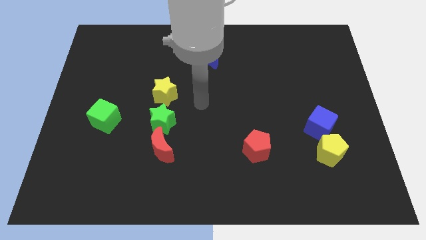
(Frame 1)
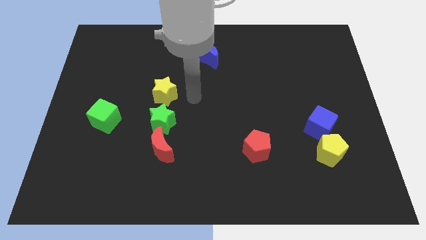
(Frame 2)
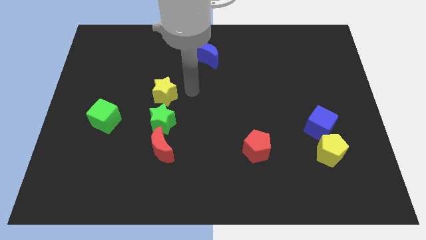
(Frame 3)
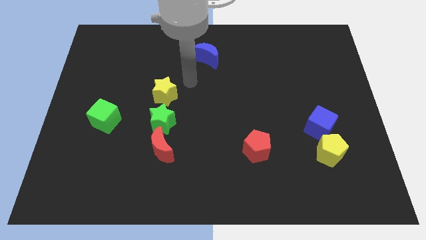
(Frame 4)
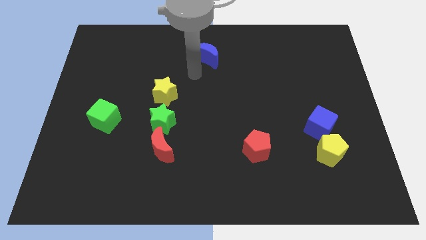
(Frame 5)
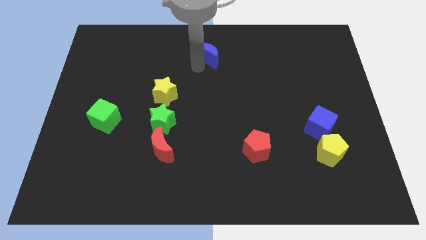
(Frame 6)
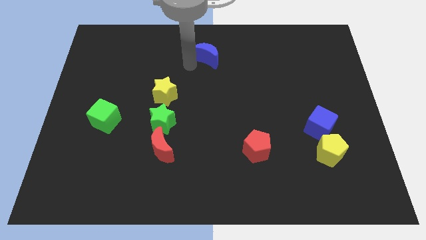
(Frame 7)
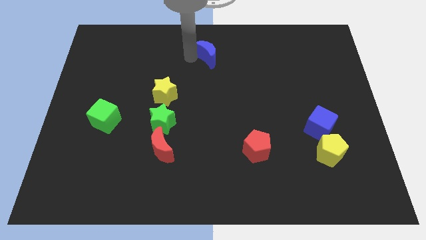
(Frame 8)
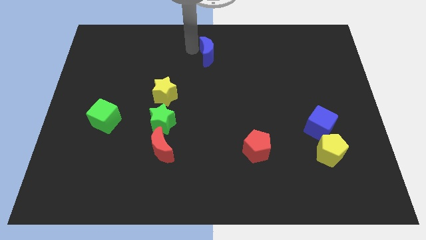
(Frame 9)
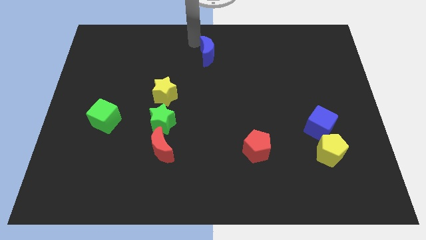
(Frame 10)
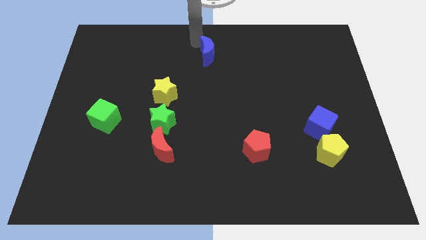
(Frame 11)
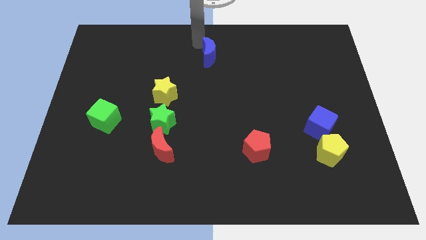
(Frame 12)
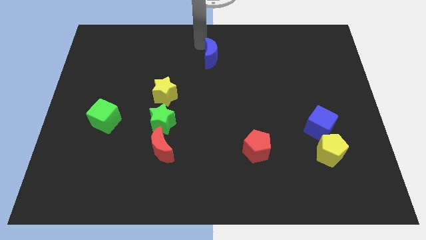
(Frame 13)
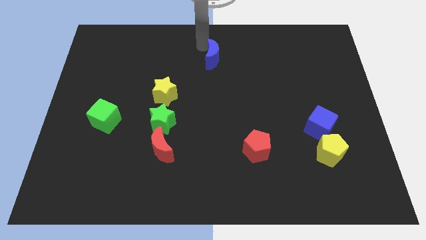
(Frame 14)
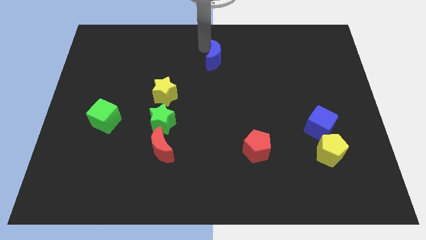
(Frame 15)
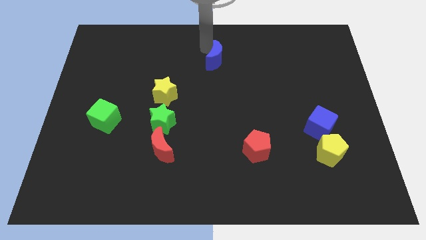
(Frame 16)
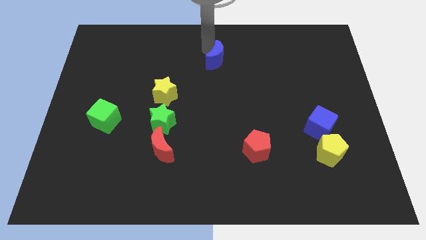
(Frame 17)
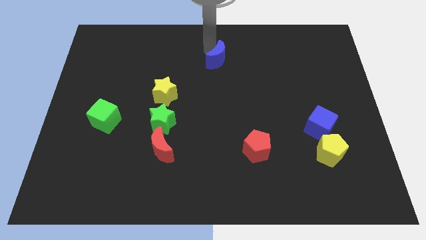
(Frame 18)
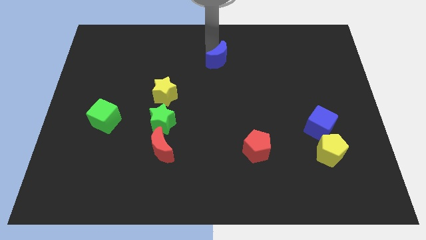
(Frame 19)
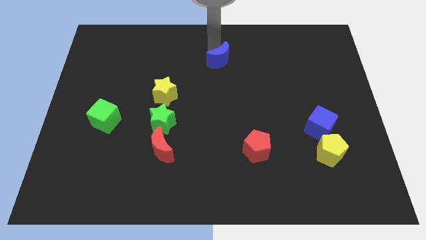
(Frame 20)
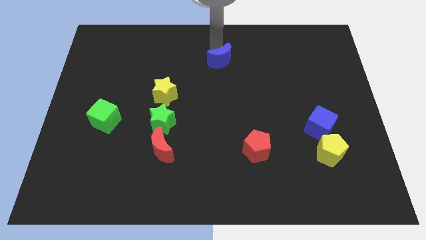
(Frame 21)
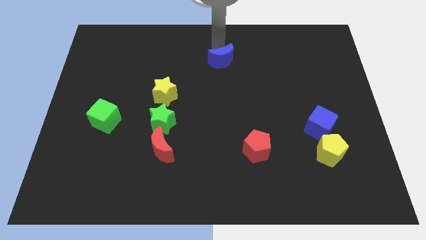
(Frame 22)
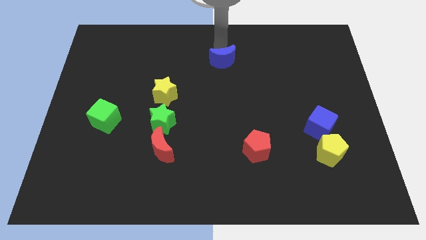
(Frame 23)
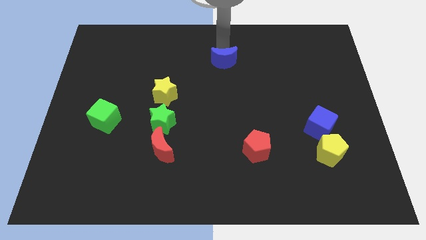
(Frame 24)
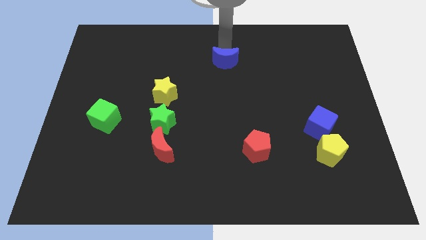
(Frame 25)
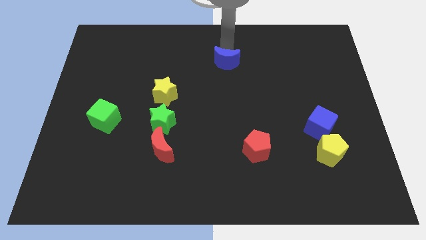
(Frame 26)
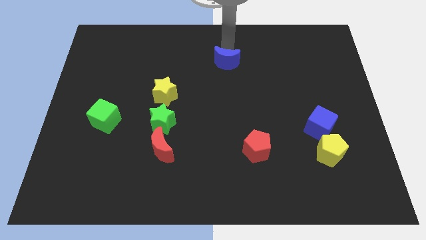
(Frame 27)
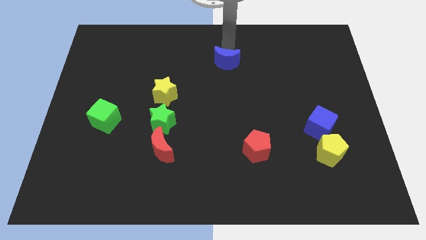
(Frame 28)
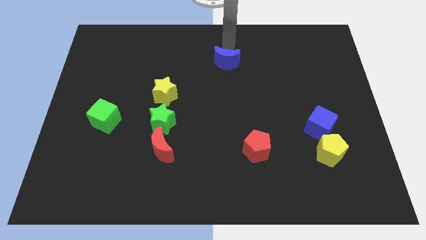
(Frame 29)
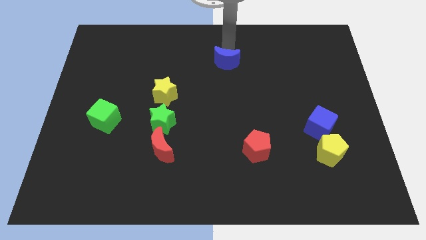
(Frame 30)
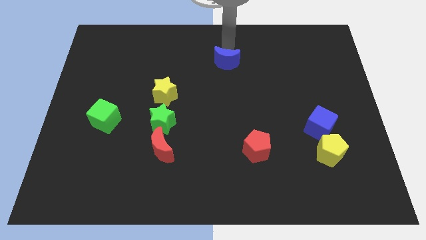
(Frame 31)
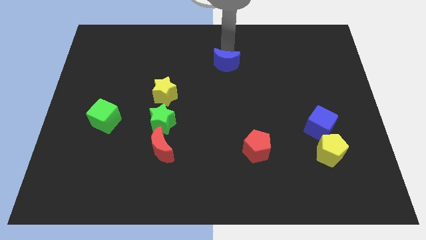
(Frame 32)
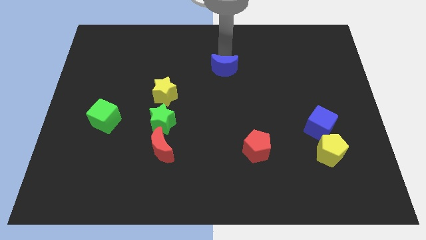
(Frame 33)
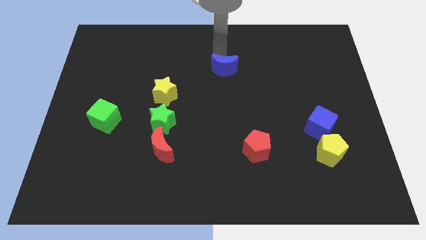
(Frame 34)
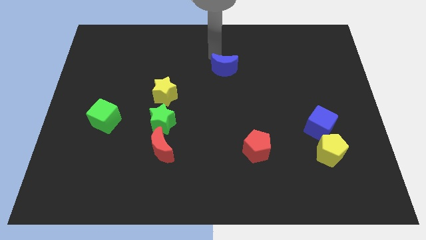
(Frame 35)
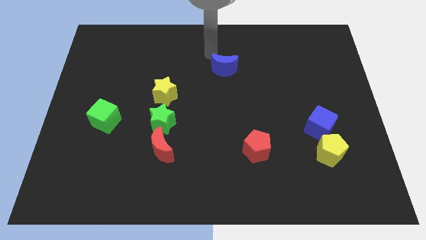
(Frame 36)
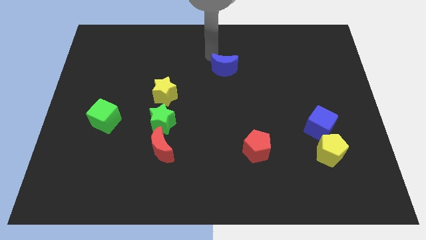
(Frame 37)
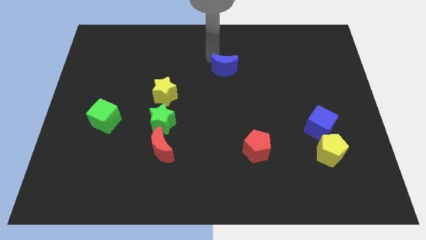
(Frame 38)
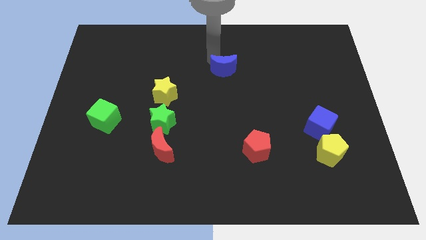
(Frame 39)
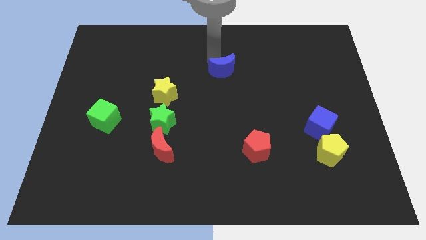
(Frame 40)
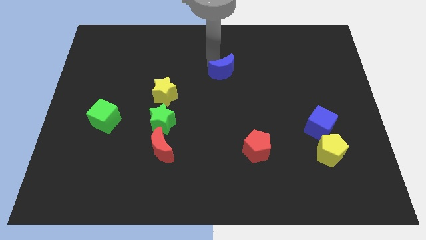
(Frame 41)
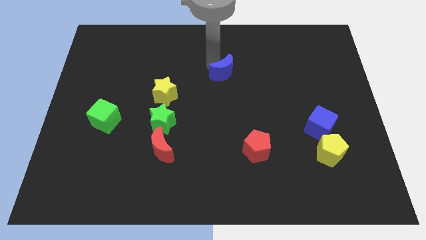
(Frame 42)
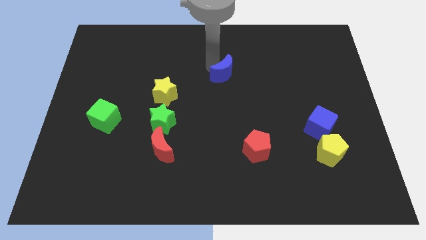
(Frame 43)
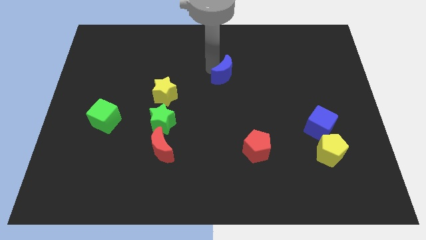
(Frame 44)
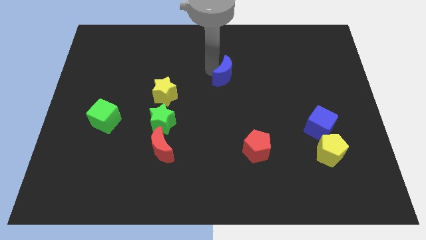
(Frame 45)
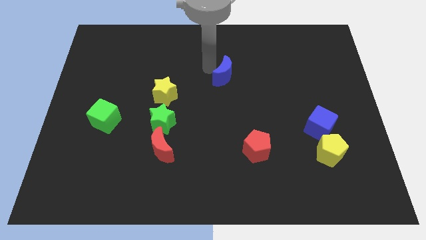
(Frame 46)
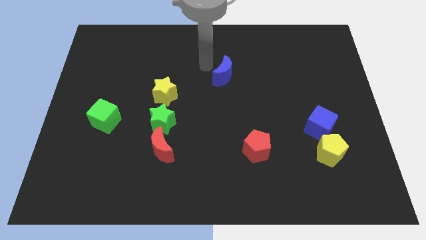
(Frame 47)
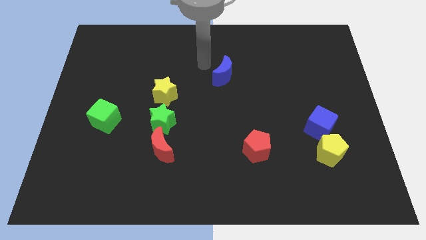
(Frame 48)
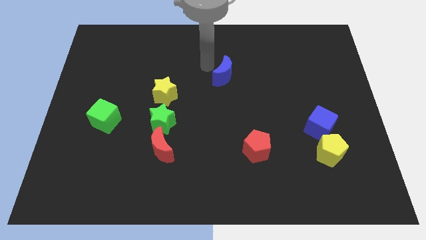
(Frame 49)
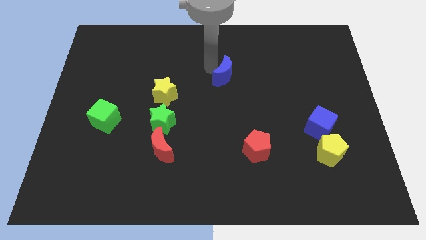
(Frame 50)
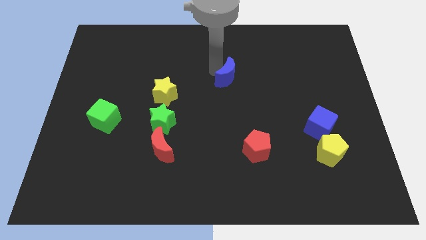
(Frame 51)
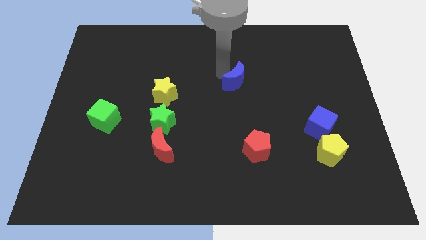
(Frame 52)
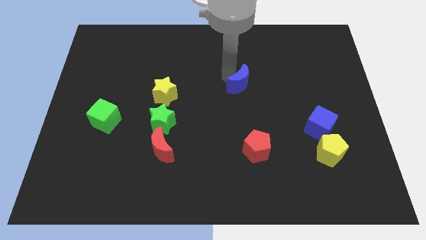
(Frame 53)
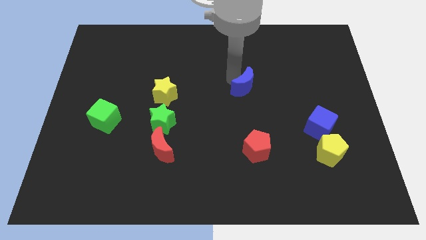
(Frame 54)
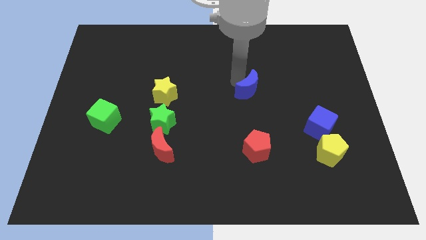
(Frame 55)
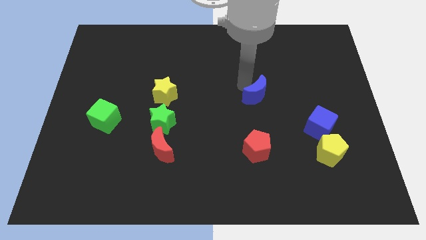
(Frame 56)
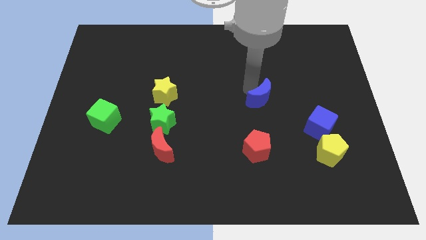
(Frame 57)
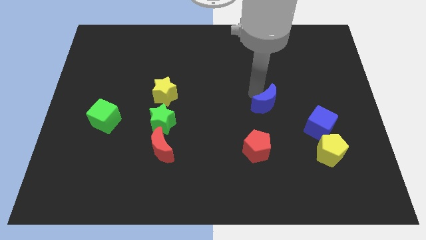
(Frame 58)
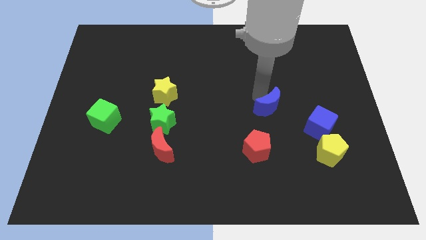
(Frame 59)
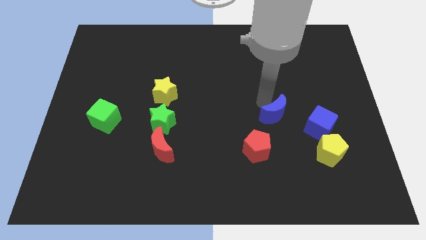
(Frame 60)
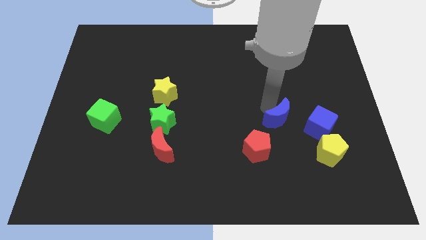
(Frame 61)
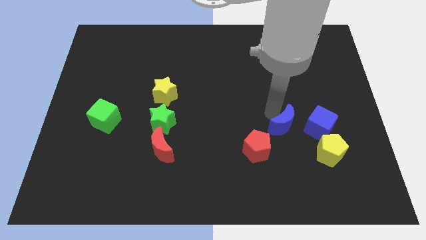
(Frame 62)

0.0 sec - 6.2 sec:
put the blue moon to the top left of the yellow pentagon
